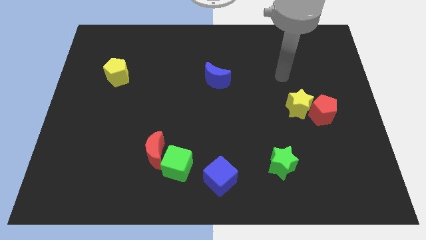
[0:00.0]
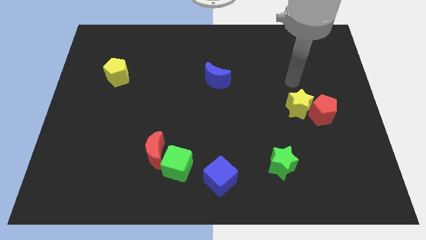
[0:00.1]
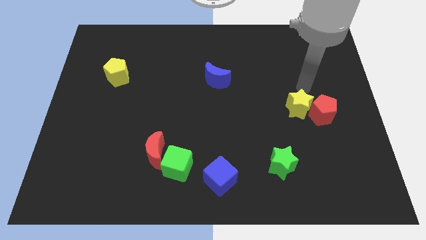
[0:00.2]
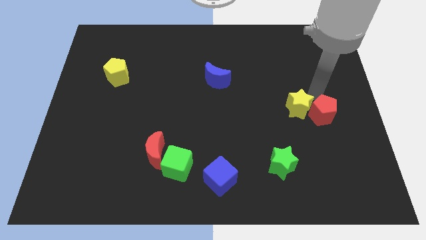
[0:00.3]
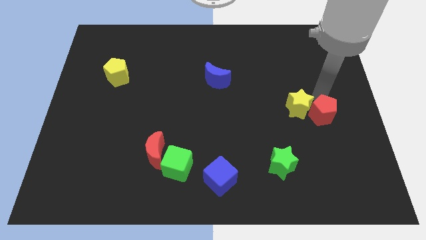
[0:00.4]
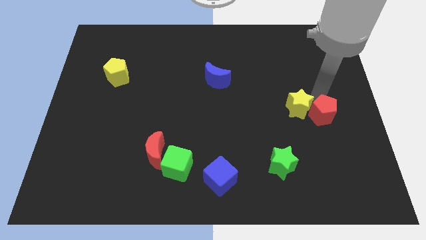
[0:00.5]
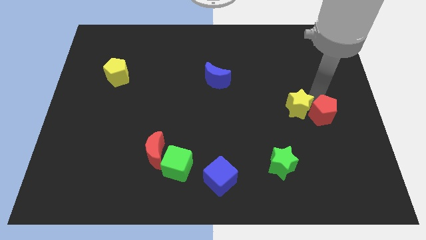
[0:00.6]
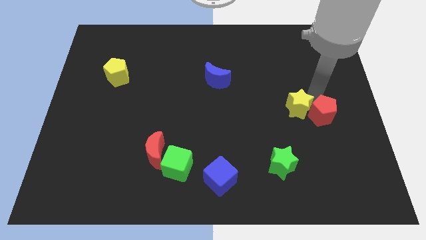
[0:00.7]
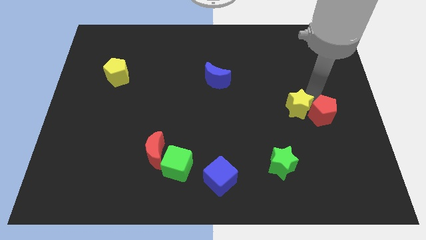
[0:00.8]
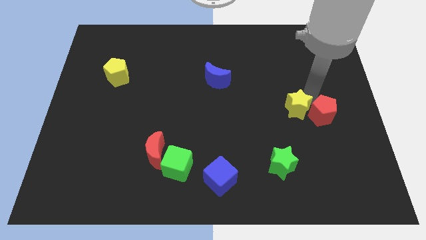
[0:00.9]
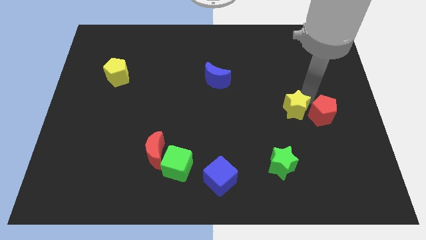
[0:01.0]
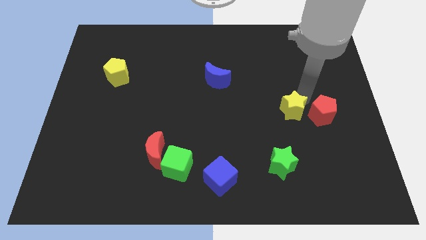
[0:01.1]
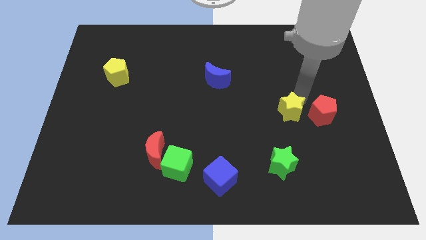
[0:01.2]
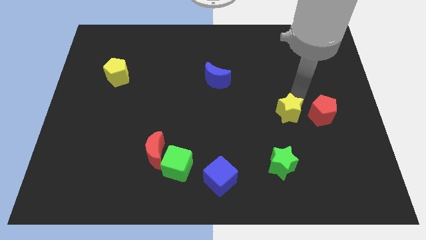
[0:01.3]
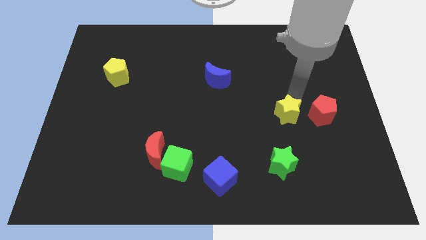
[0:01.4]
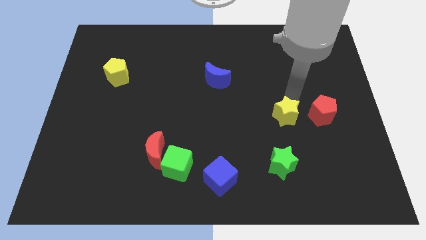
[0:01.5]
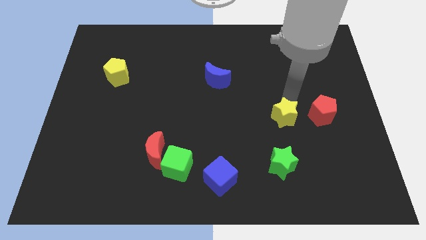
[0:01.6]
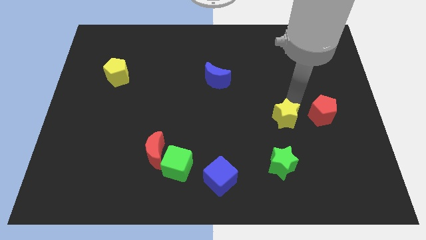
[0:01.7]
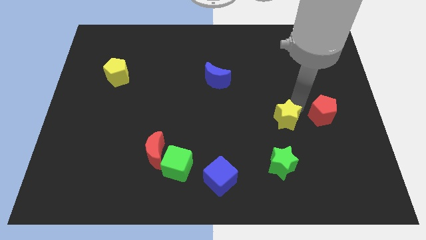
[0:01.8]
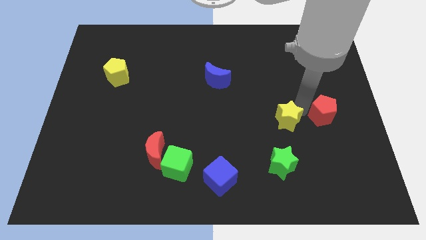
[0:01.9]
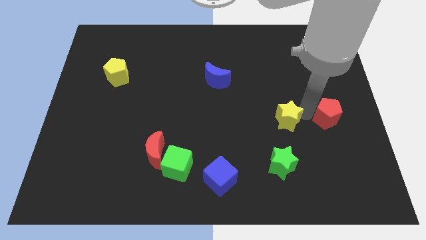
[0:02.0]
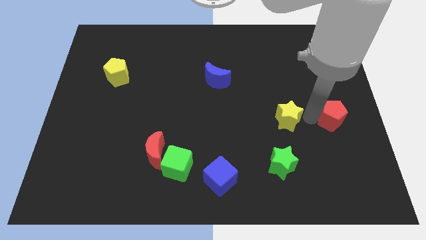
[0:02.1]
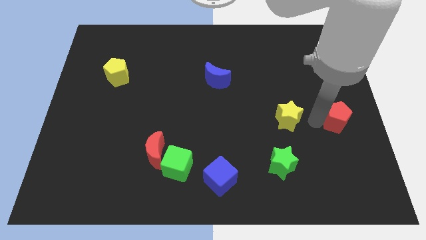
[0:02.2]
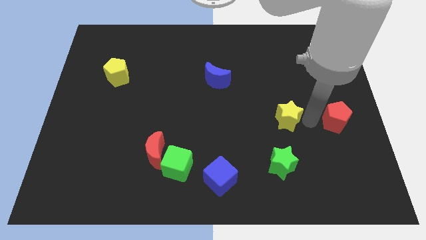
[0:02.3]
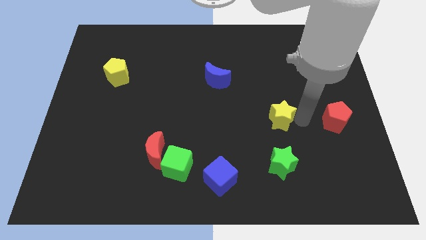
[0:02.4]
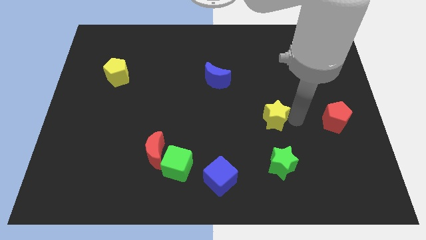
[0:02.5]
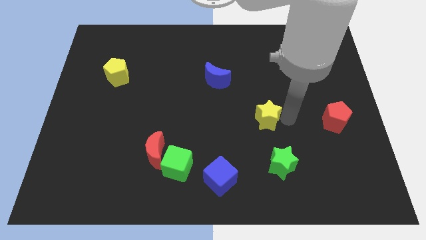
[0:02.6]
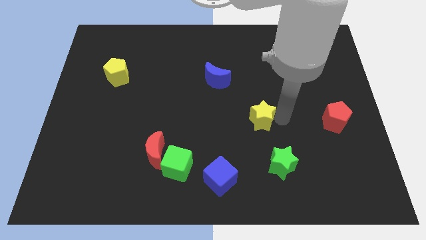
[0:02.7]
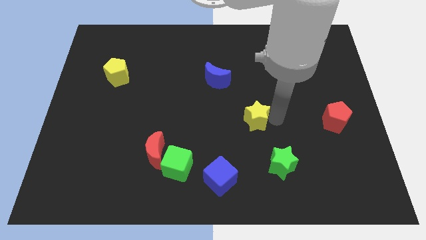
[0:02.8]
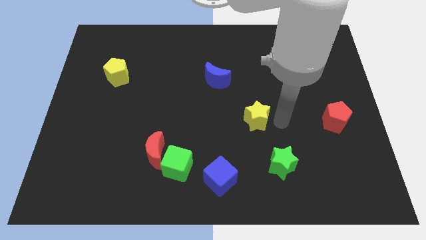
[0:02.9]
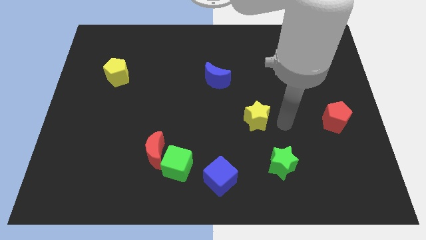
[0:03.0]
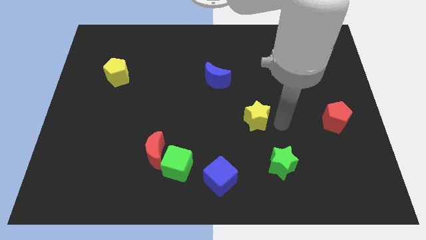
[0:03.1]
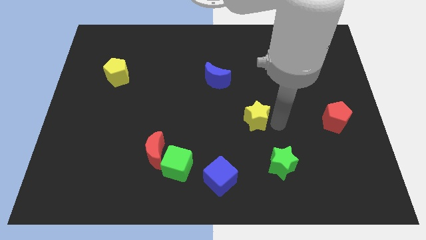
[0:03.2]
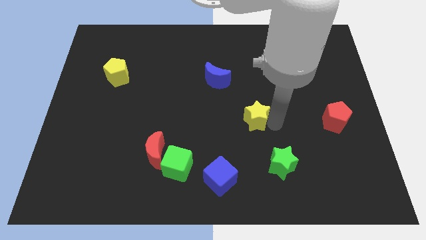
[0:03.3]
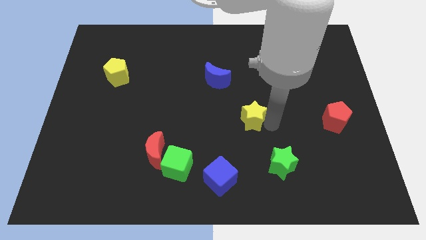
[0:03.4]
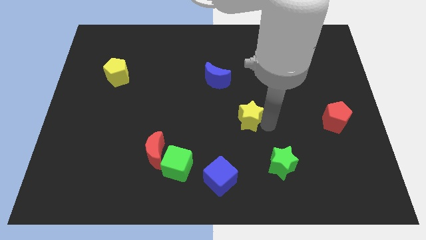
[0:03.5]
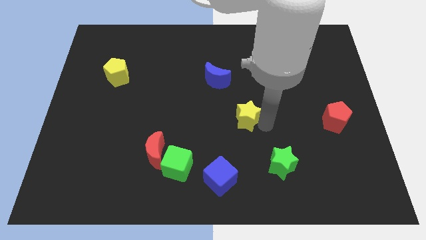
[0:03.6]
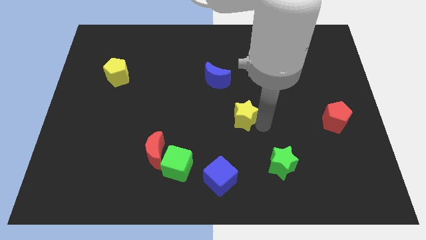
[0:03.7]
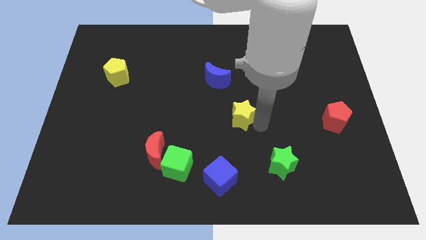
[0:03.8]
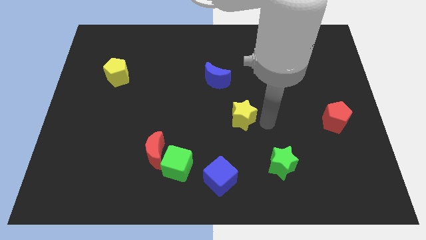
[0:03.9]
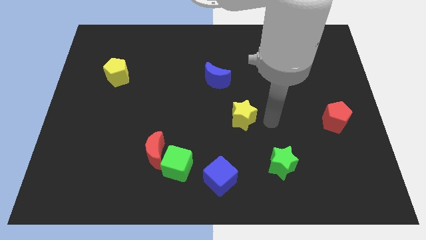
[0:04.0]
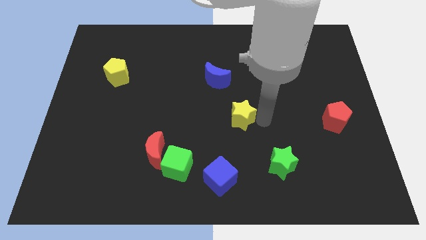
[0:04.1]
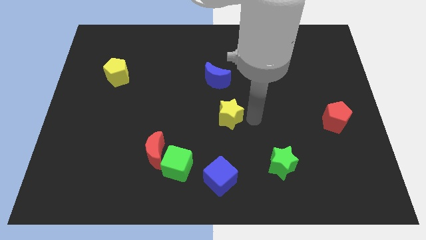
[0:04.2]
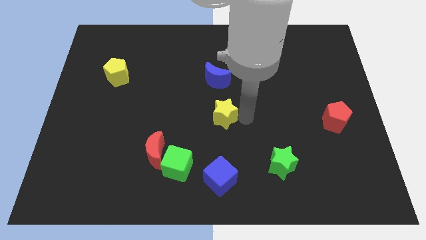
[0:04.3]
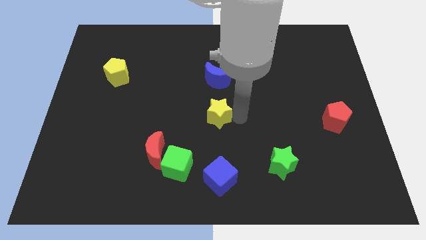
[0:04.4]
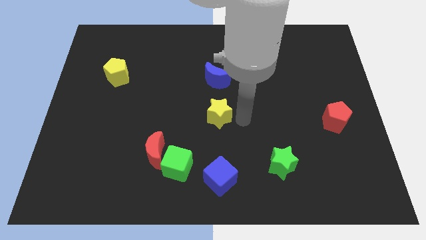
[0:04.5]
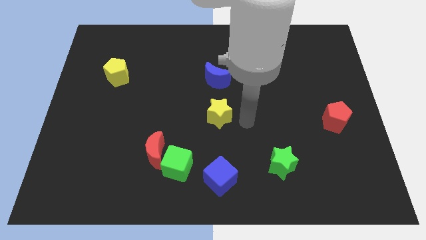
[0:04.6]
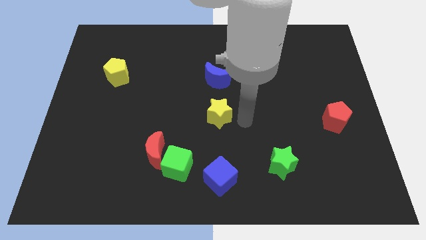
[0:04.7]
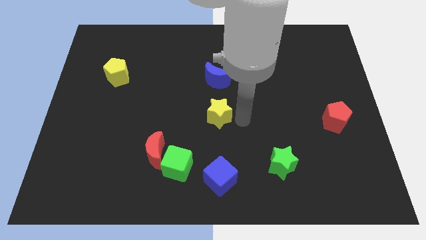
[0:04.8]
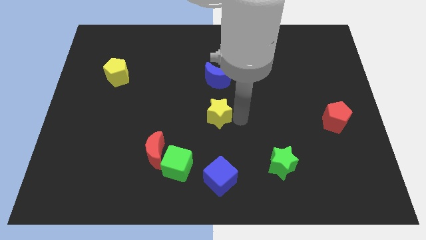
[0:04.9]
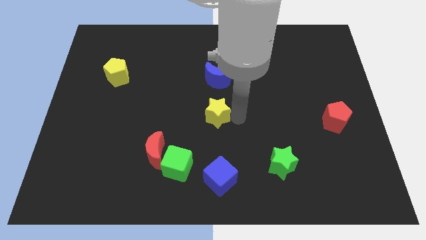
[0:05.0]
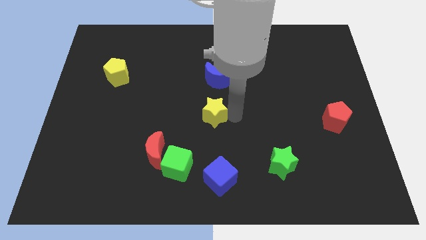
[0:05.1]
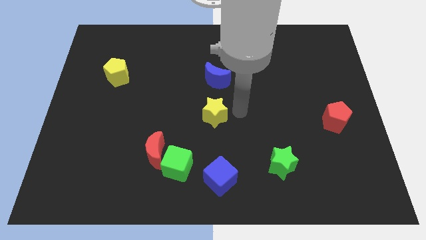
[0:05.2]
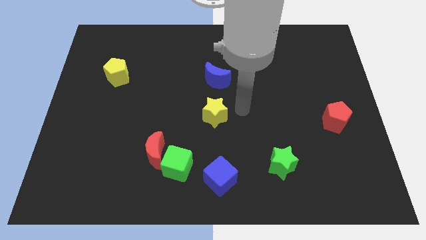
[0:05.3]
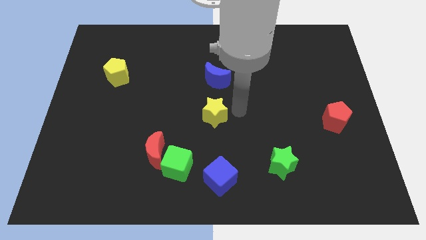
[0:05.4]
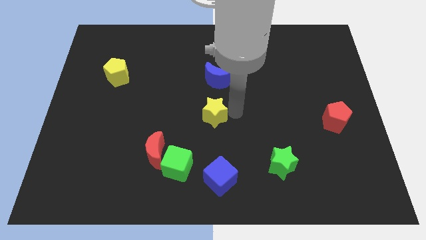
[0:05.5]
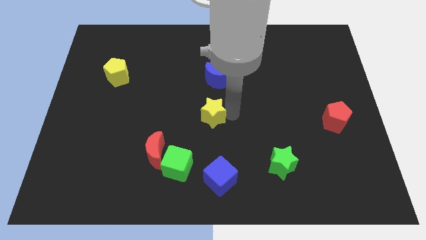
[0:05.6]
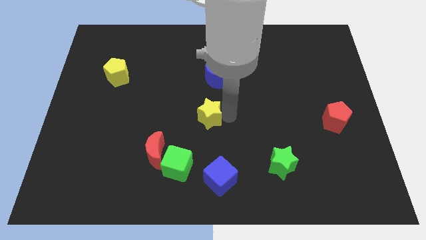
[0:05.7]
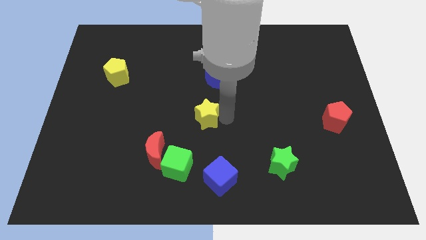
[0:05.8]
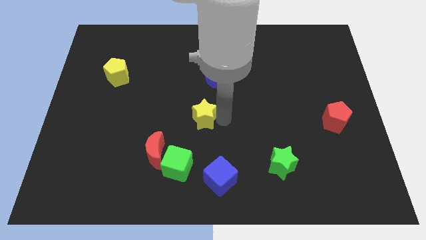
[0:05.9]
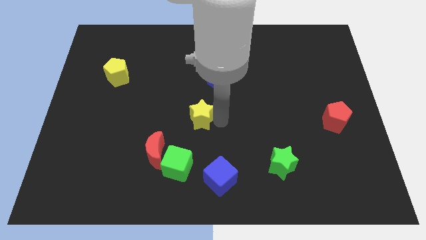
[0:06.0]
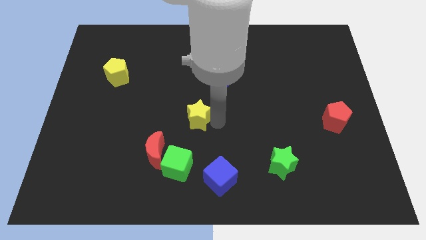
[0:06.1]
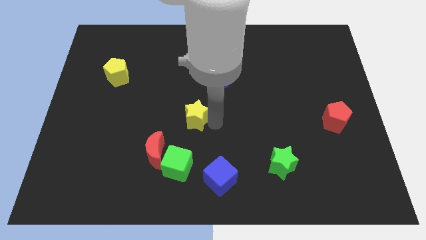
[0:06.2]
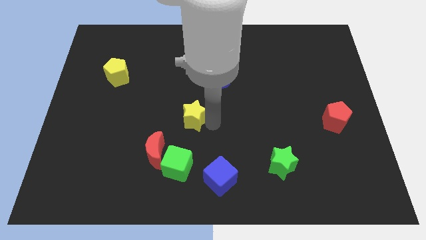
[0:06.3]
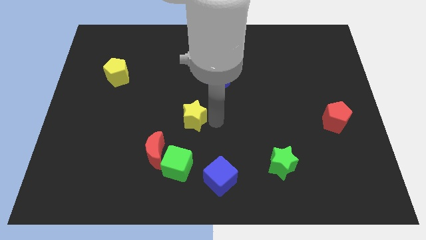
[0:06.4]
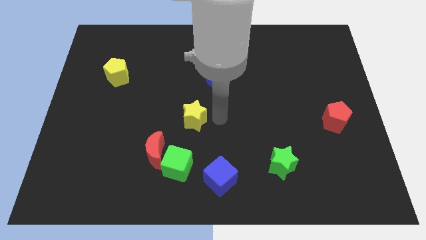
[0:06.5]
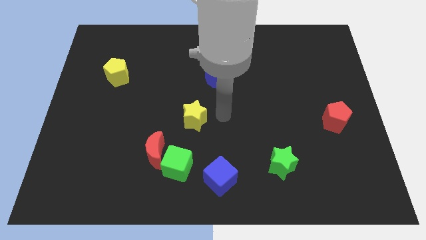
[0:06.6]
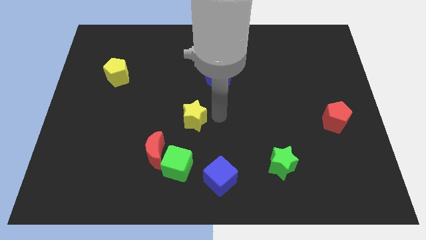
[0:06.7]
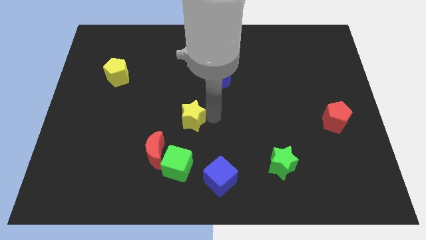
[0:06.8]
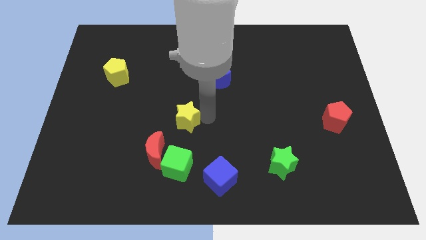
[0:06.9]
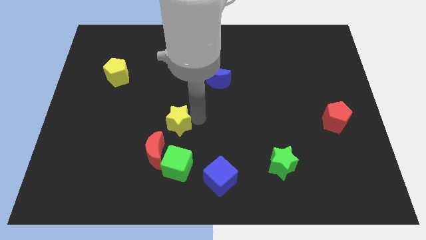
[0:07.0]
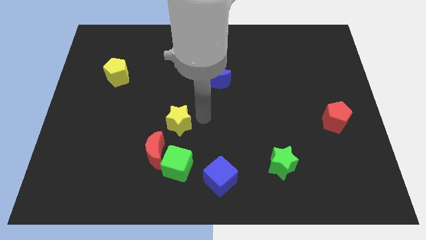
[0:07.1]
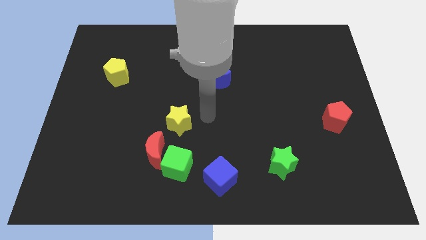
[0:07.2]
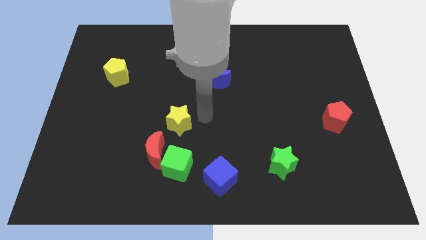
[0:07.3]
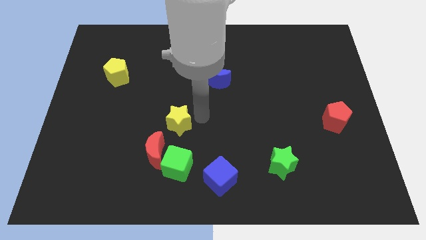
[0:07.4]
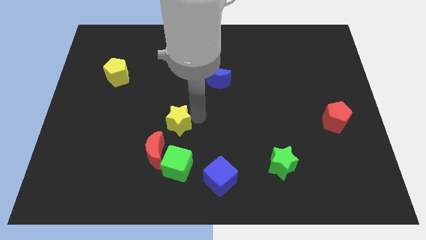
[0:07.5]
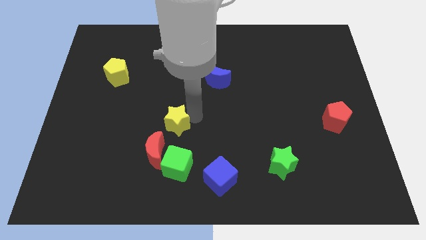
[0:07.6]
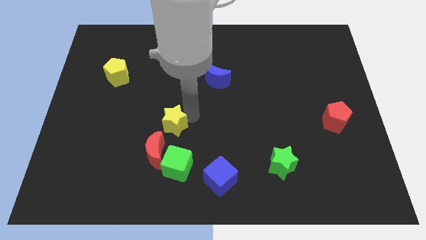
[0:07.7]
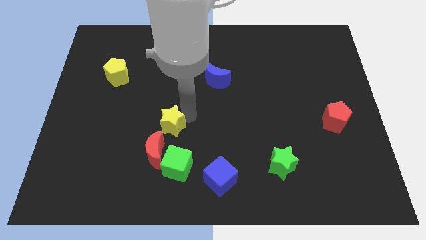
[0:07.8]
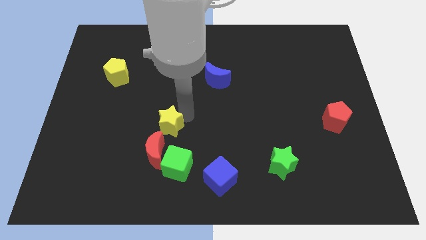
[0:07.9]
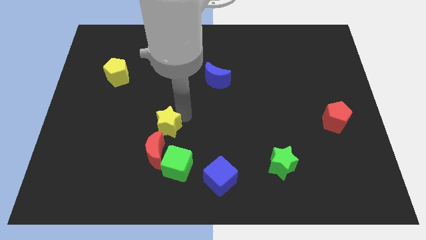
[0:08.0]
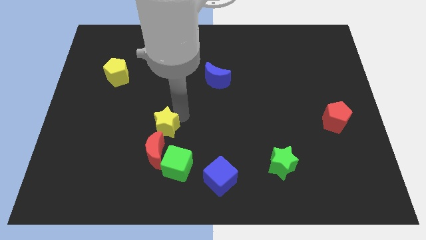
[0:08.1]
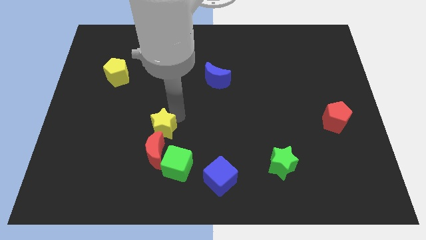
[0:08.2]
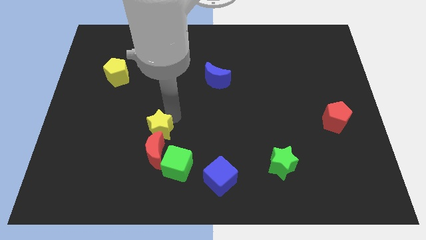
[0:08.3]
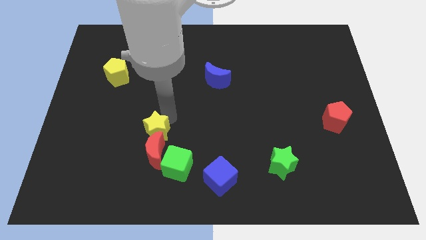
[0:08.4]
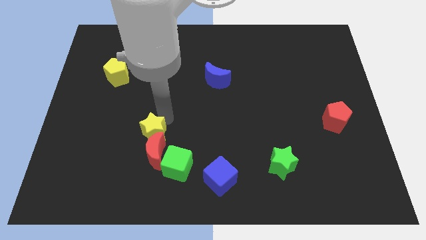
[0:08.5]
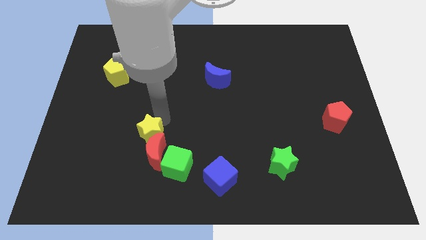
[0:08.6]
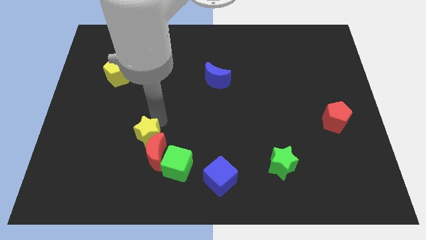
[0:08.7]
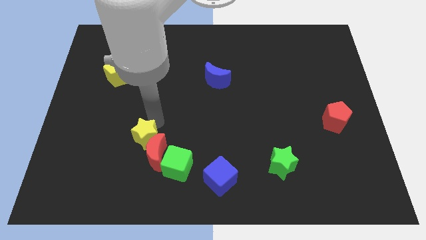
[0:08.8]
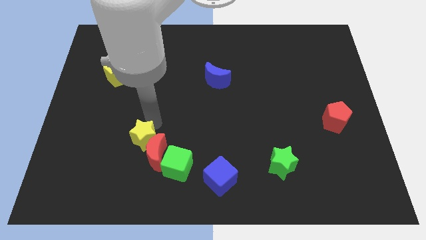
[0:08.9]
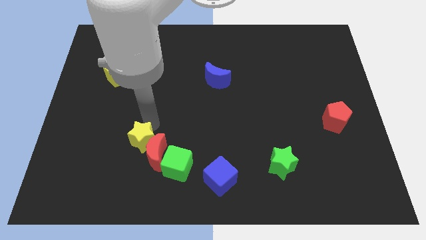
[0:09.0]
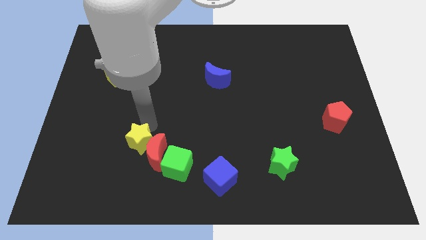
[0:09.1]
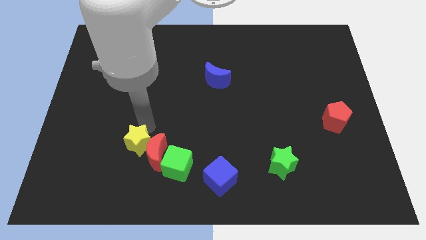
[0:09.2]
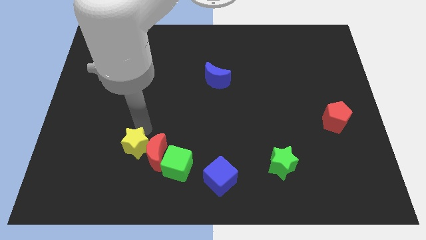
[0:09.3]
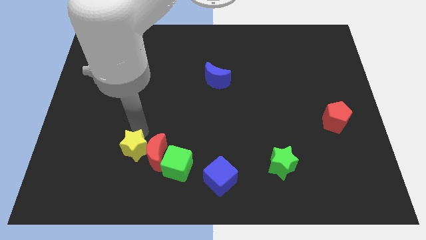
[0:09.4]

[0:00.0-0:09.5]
move the yellow star to the bottom left side of the red moon
